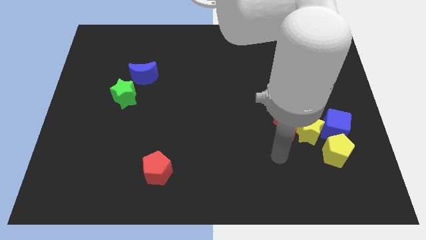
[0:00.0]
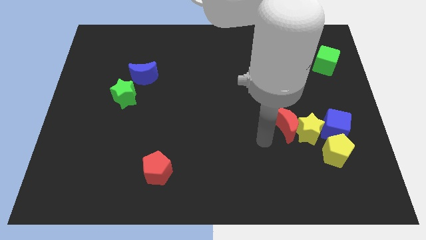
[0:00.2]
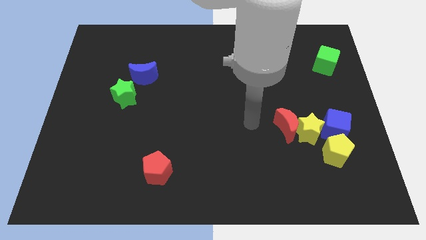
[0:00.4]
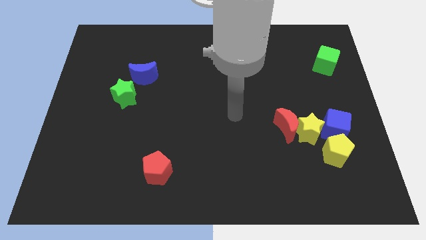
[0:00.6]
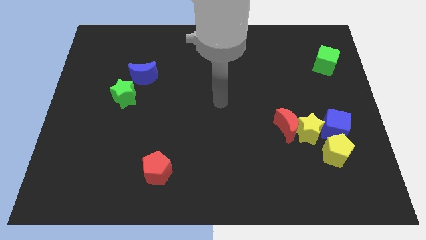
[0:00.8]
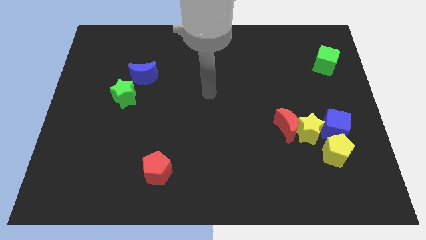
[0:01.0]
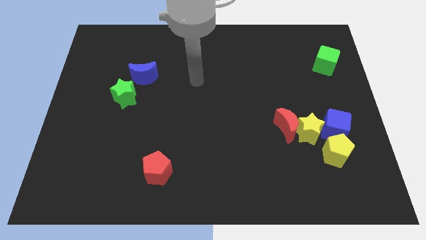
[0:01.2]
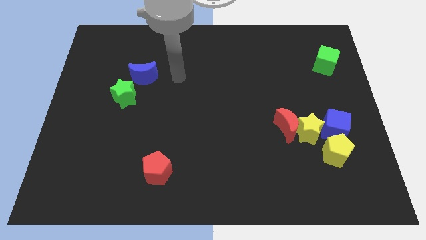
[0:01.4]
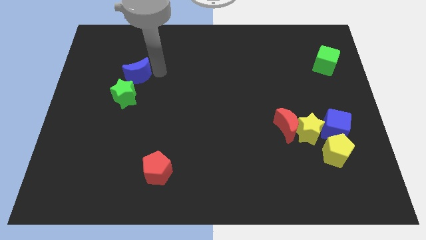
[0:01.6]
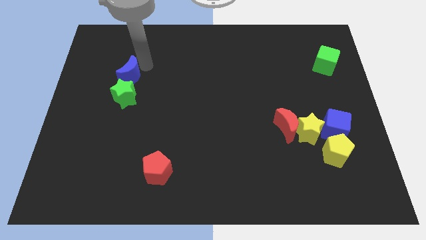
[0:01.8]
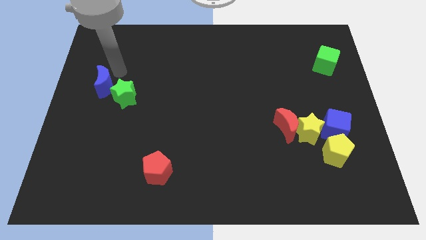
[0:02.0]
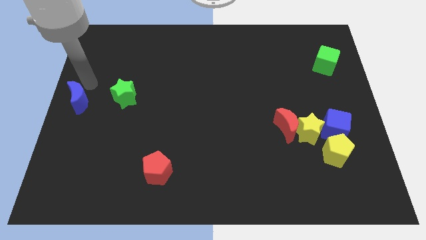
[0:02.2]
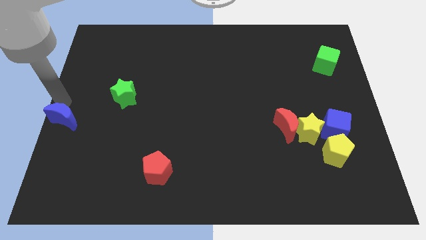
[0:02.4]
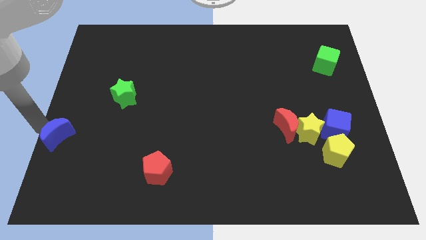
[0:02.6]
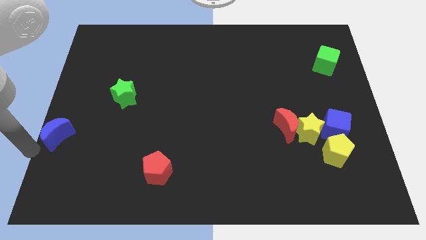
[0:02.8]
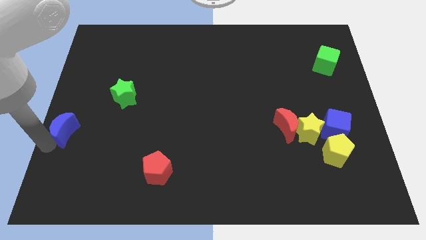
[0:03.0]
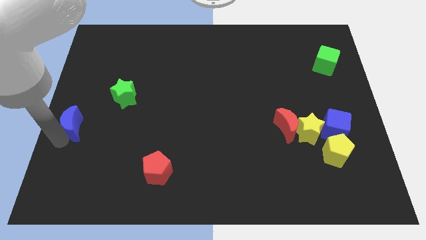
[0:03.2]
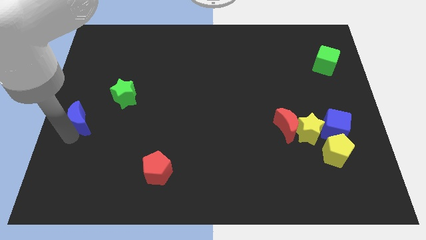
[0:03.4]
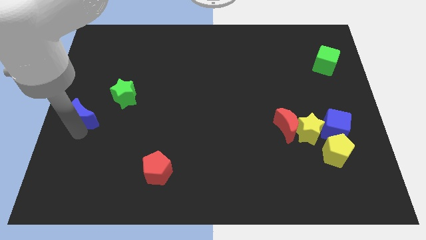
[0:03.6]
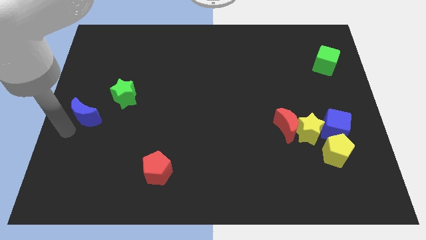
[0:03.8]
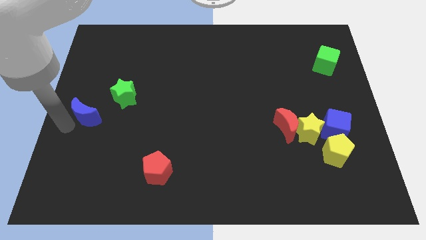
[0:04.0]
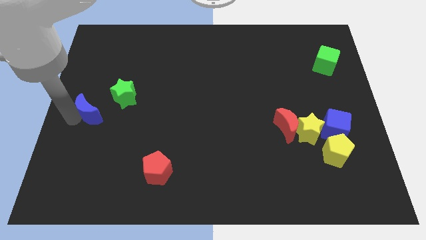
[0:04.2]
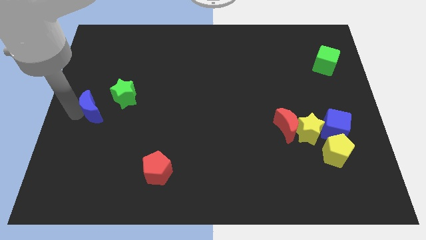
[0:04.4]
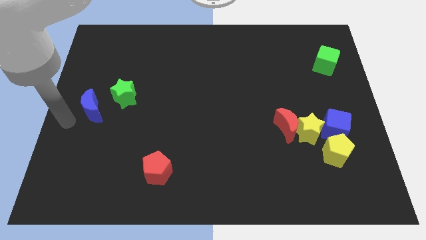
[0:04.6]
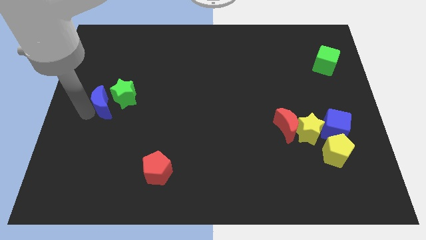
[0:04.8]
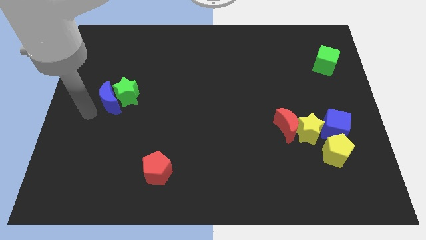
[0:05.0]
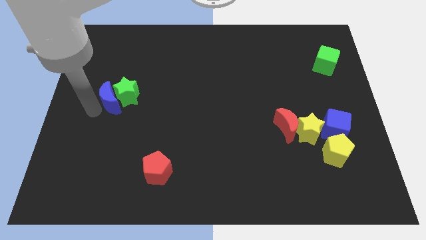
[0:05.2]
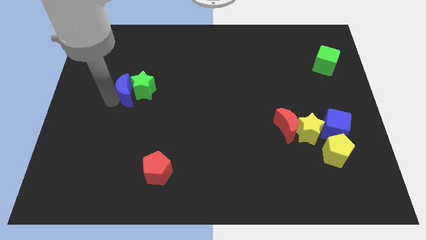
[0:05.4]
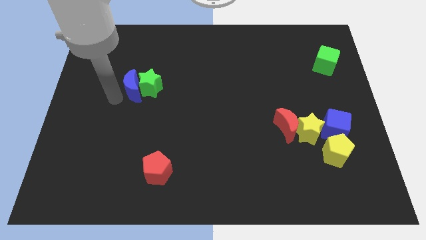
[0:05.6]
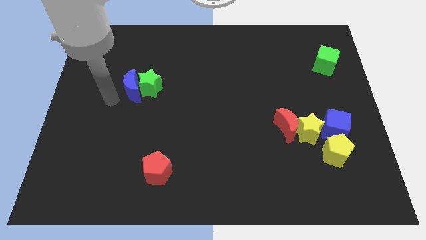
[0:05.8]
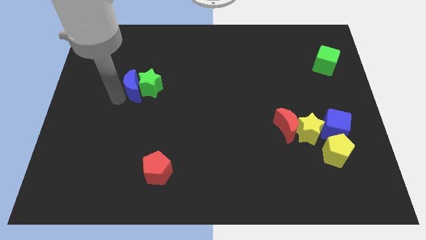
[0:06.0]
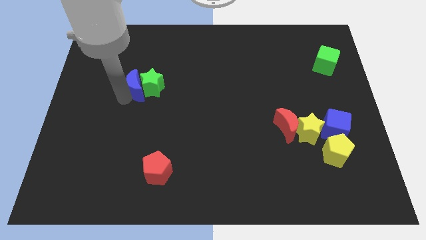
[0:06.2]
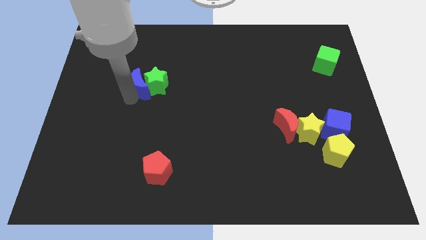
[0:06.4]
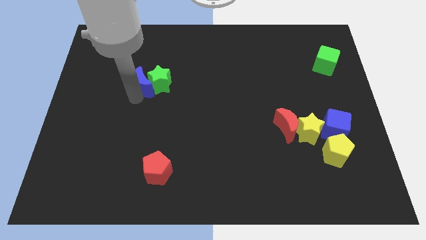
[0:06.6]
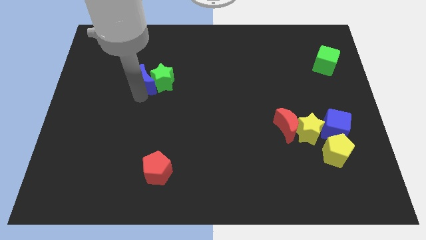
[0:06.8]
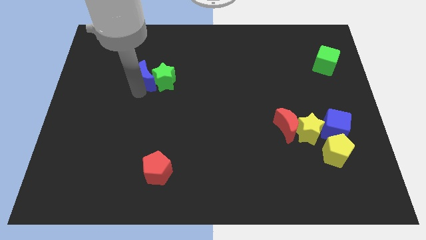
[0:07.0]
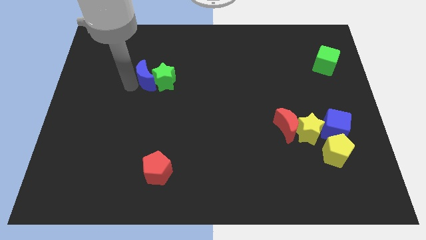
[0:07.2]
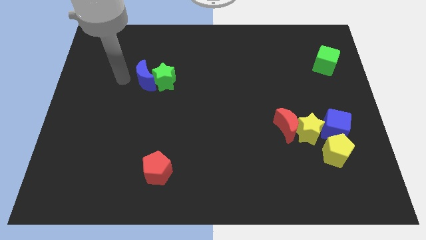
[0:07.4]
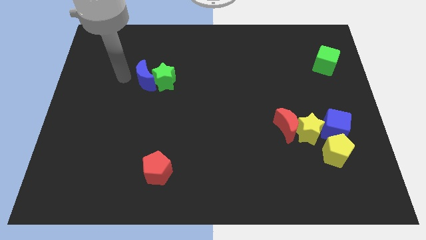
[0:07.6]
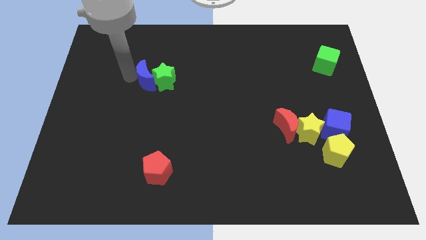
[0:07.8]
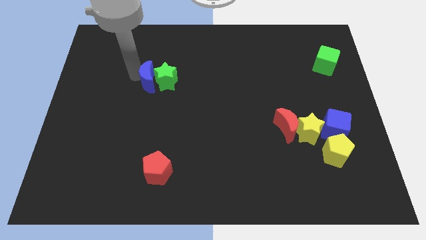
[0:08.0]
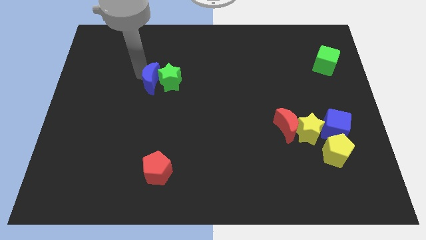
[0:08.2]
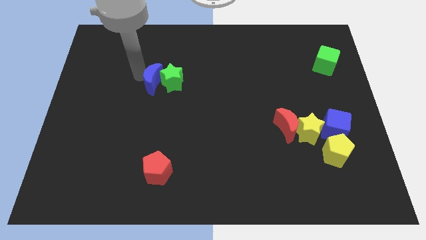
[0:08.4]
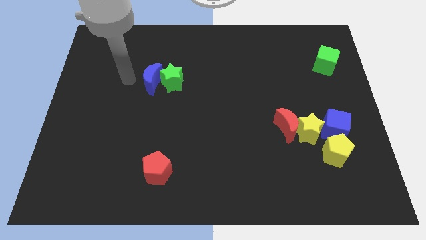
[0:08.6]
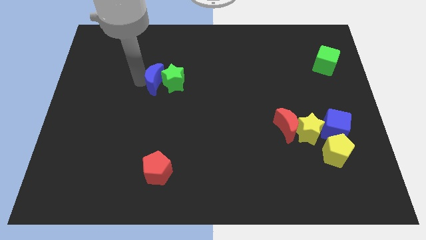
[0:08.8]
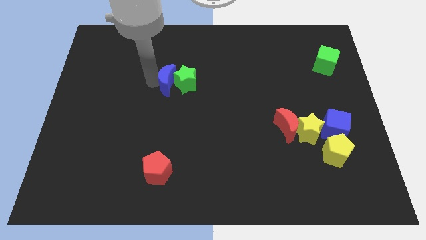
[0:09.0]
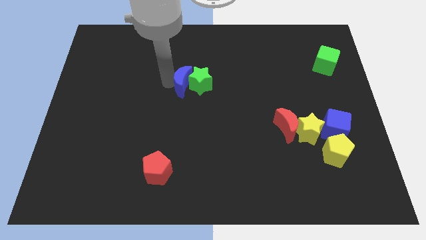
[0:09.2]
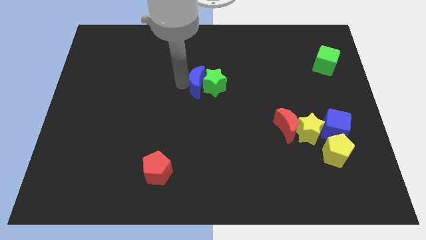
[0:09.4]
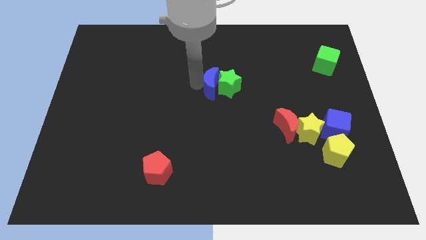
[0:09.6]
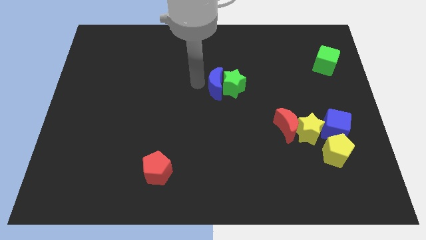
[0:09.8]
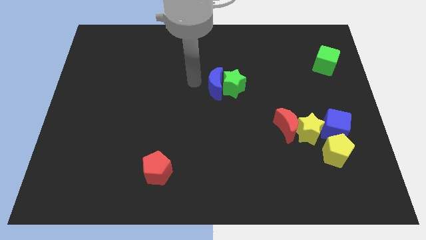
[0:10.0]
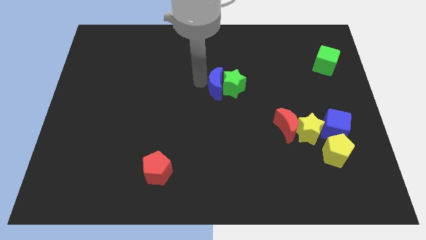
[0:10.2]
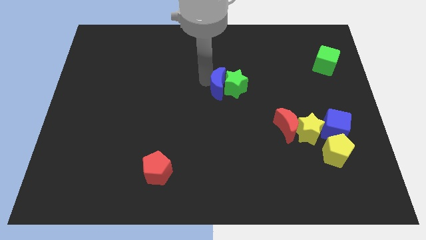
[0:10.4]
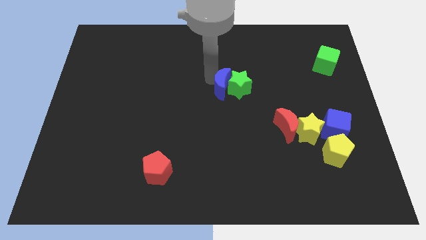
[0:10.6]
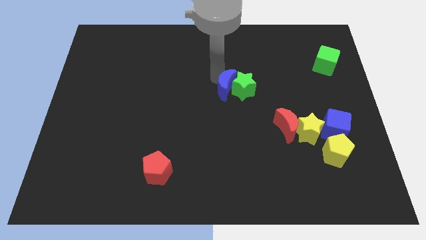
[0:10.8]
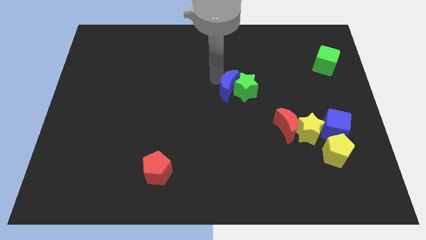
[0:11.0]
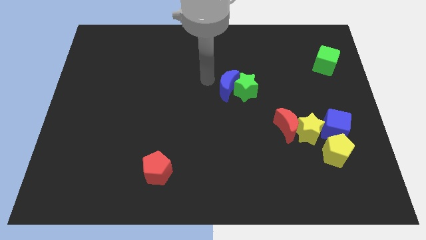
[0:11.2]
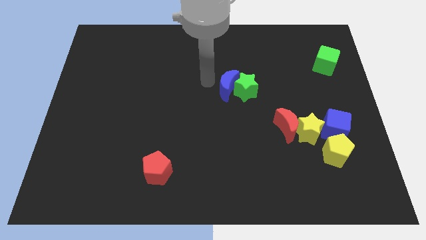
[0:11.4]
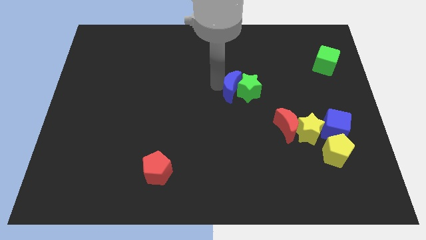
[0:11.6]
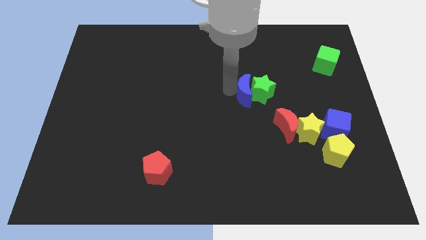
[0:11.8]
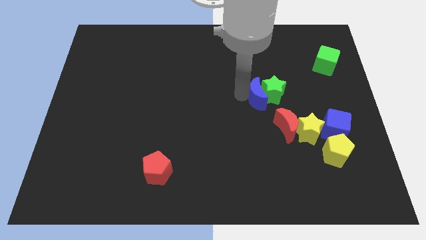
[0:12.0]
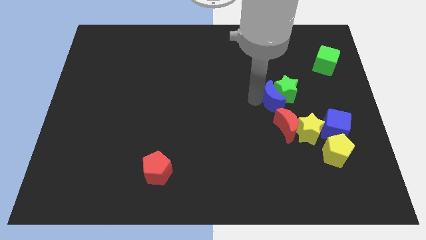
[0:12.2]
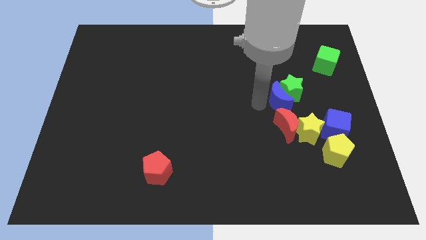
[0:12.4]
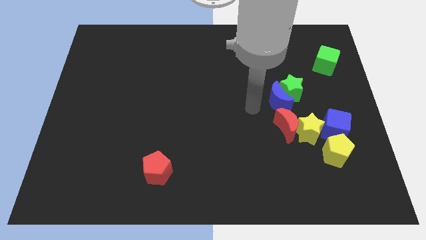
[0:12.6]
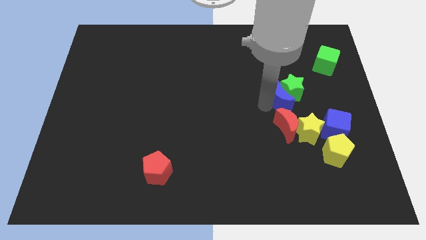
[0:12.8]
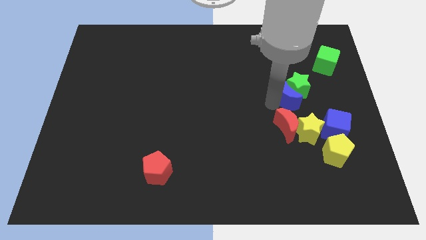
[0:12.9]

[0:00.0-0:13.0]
slide the blue moon above the yellow star
